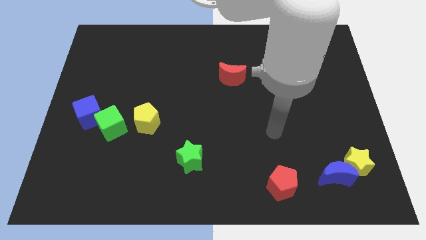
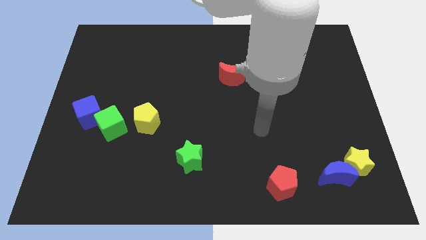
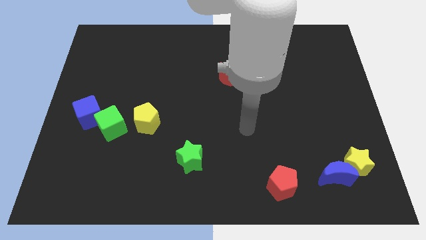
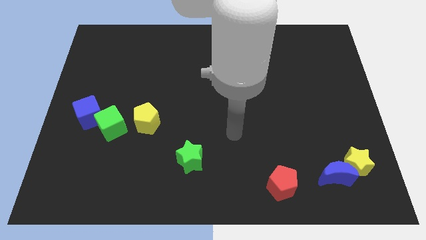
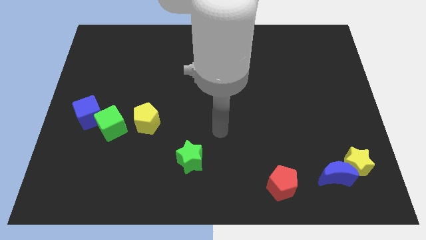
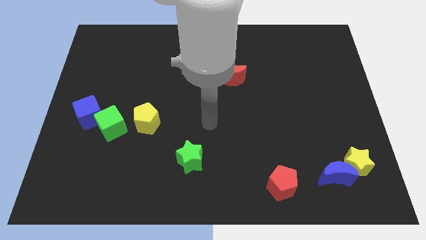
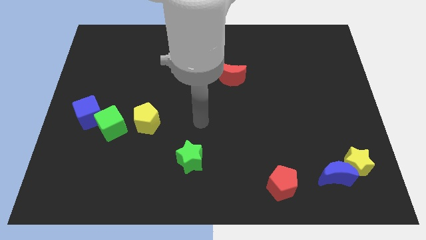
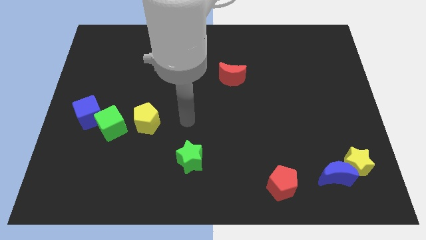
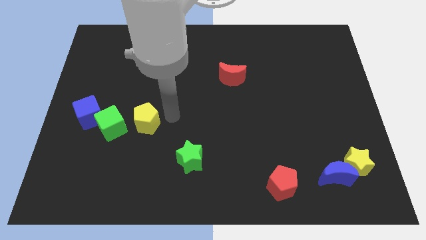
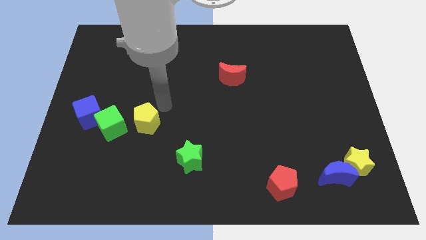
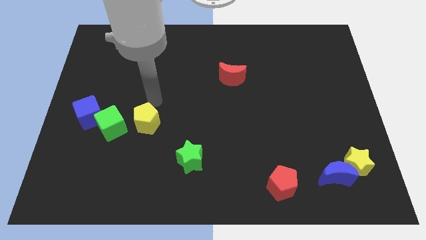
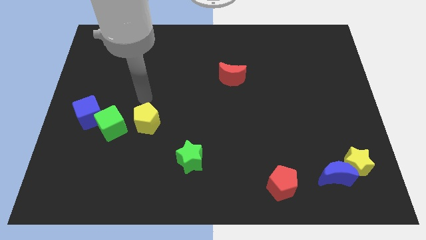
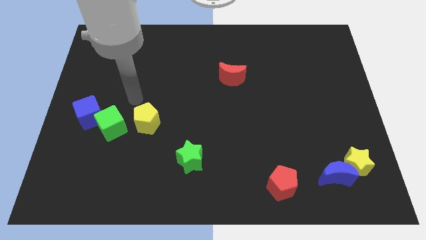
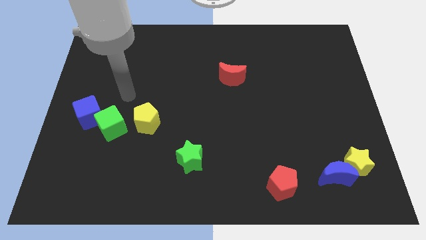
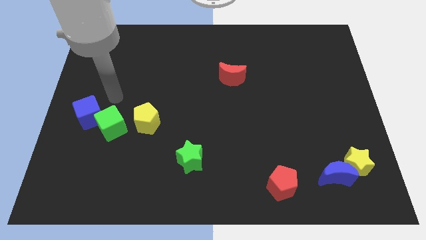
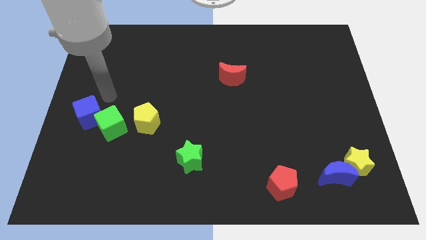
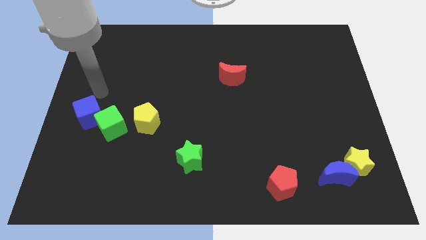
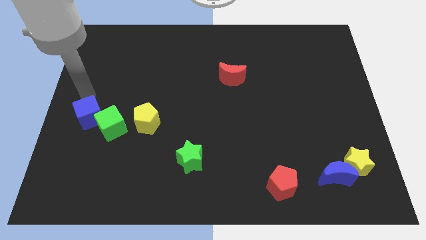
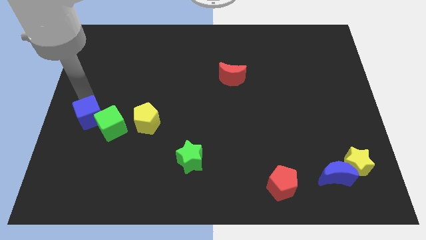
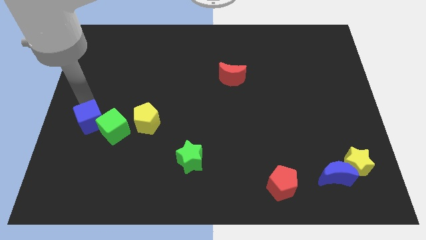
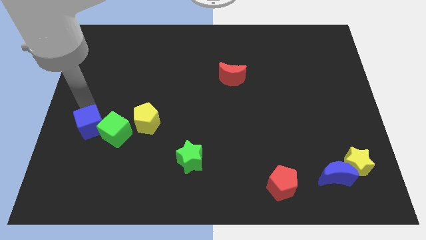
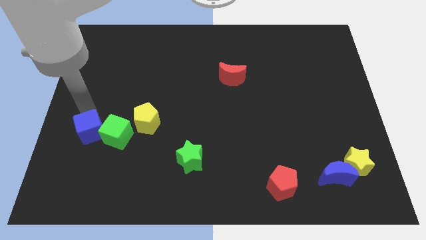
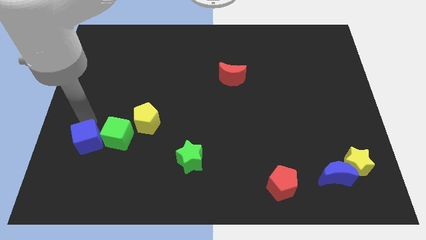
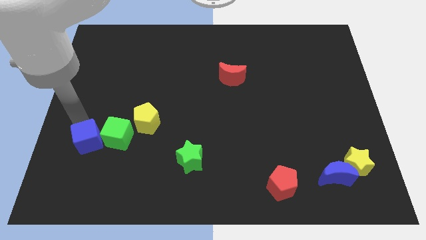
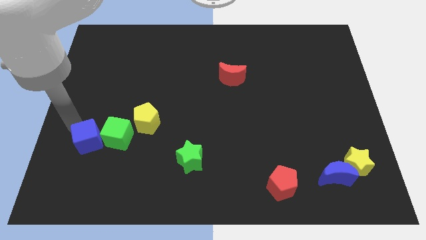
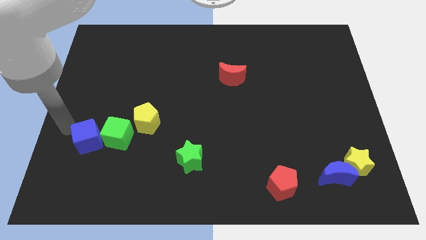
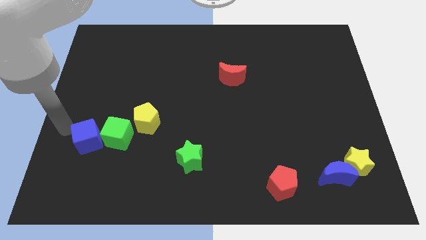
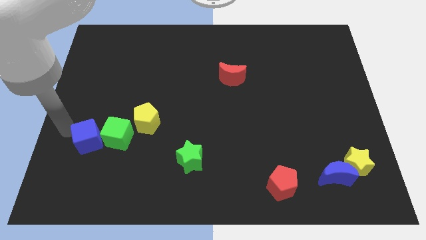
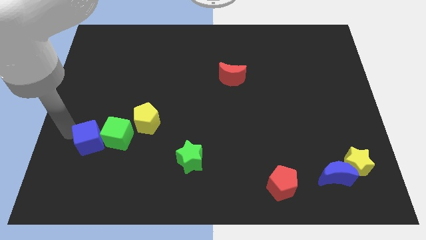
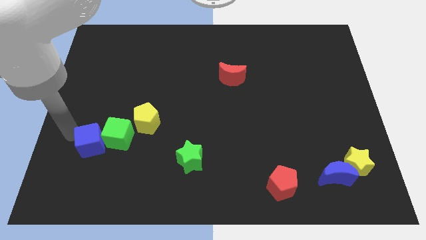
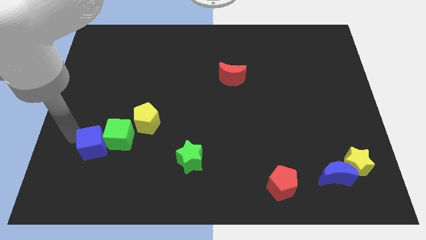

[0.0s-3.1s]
slightly push the blue cube down and to the right

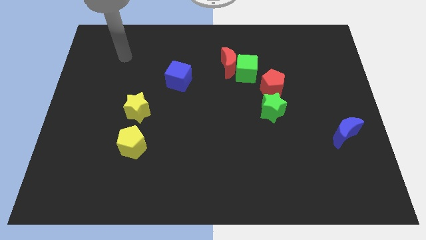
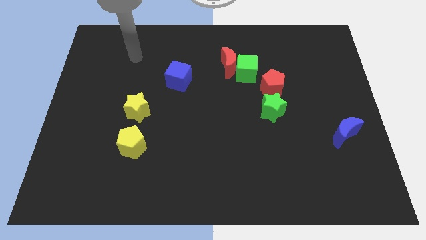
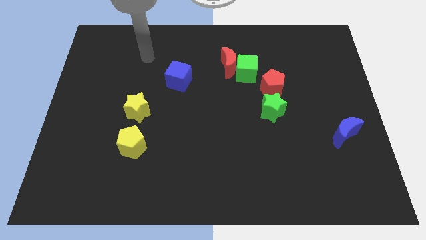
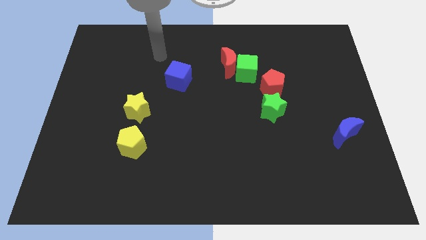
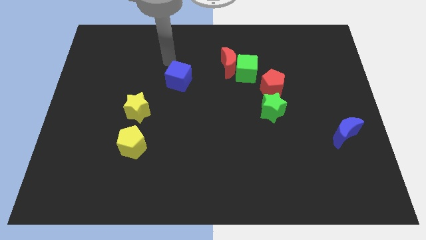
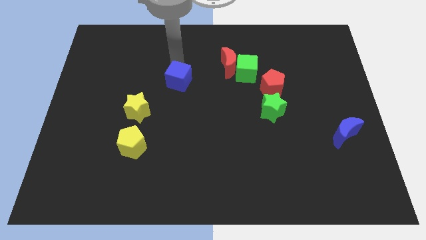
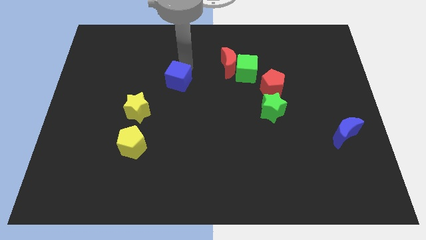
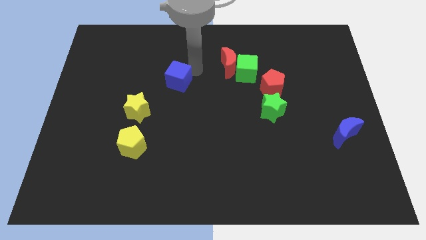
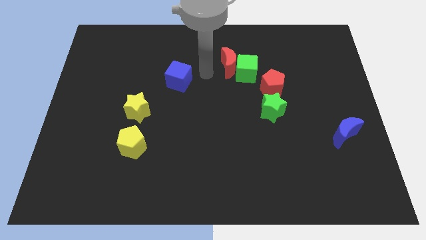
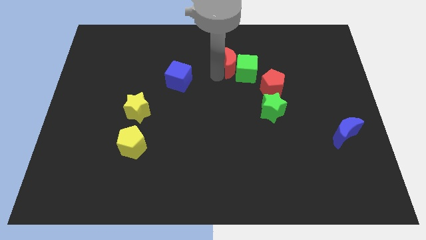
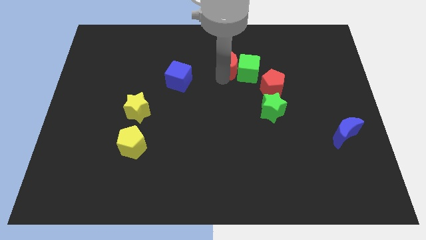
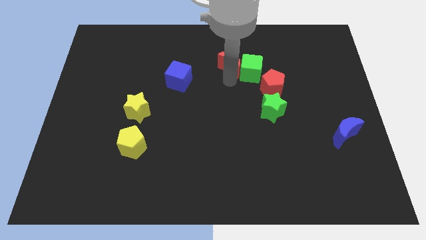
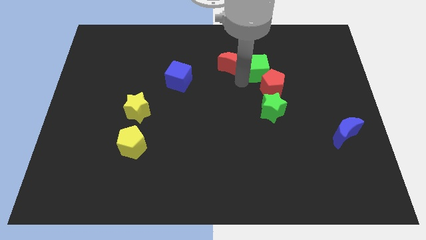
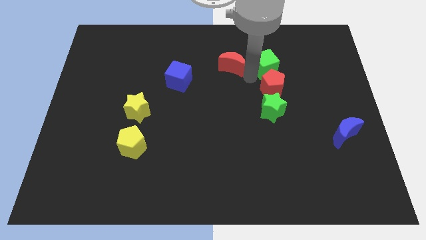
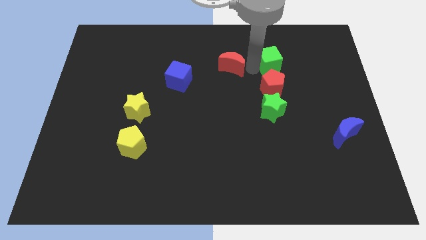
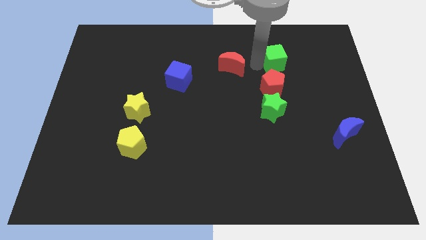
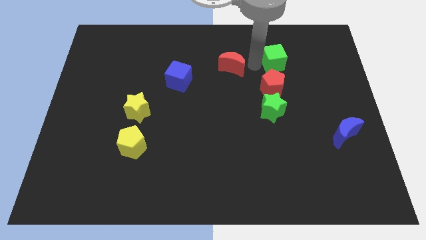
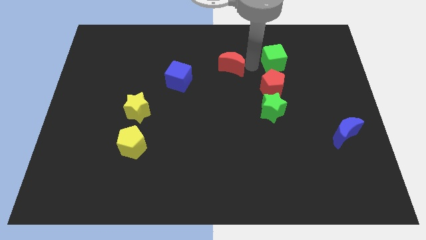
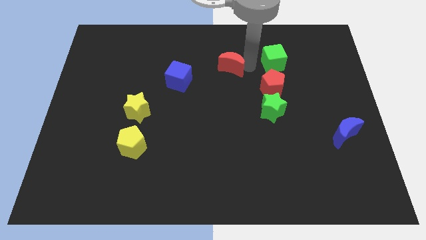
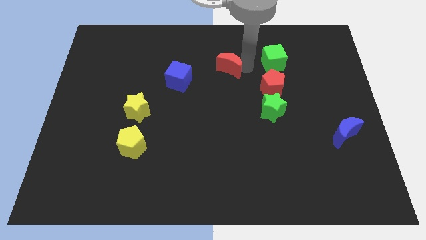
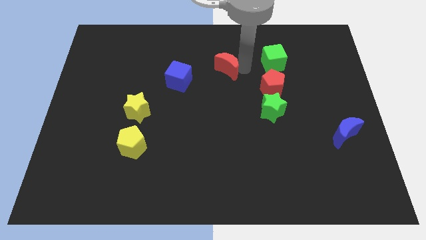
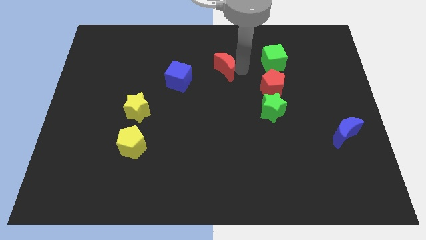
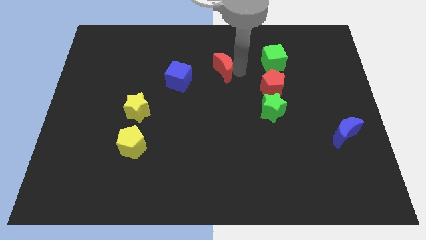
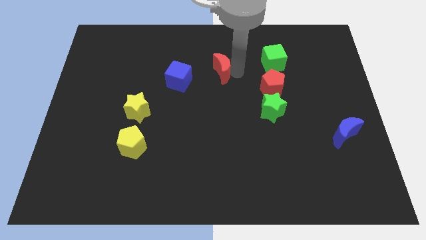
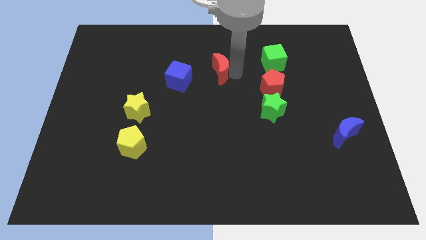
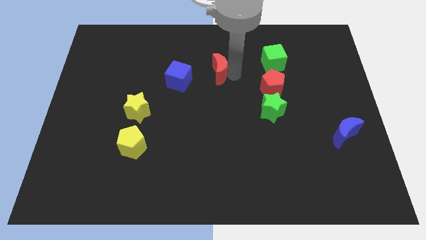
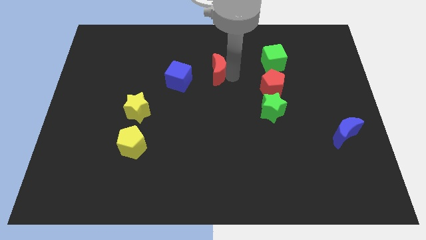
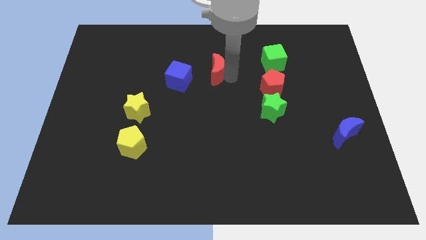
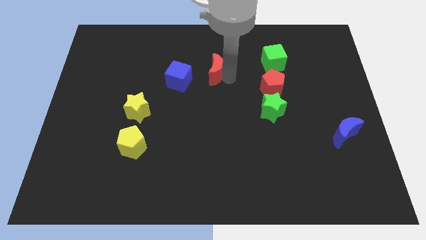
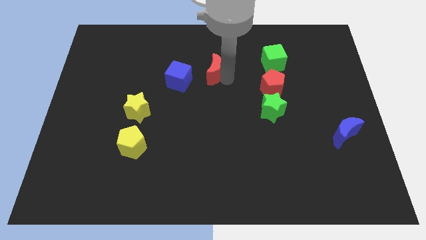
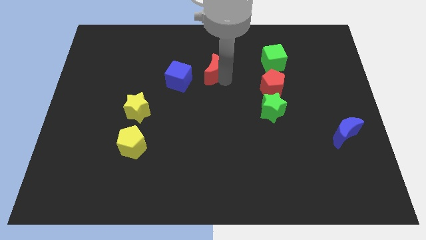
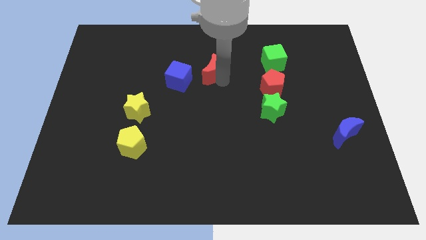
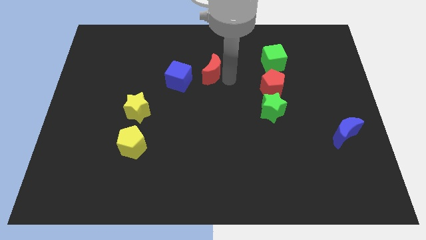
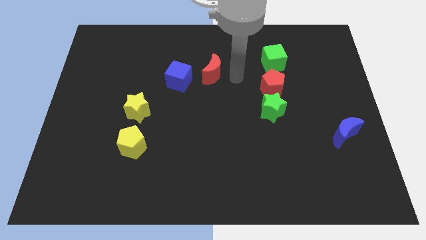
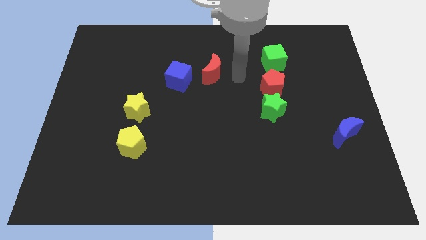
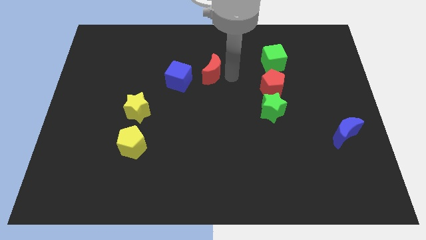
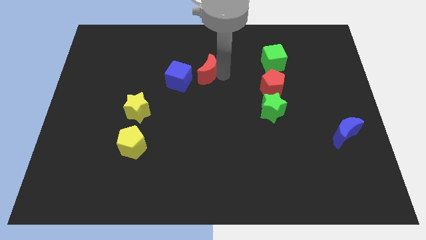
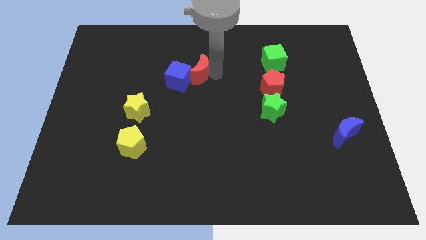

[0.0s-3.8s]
push the red moon left somewhat

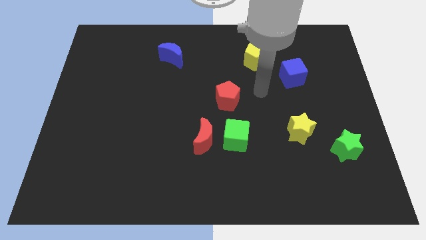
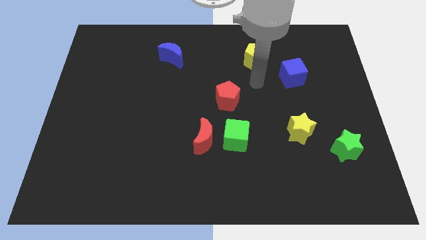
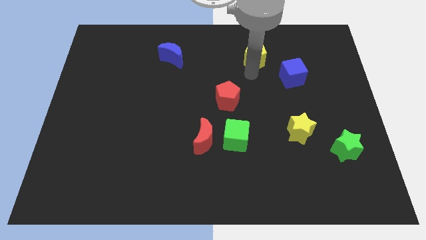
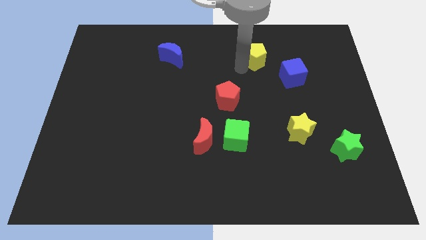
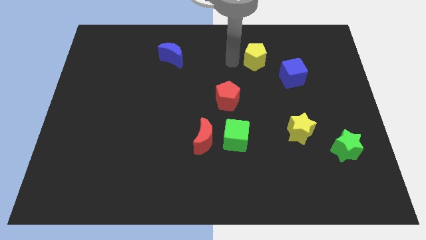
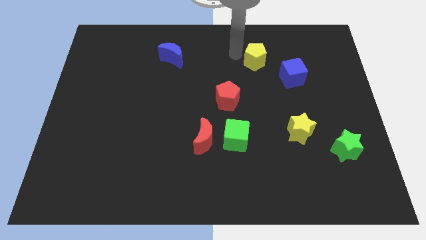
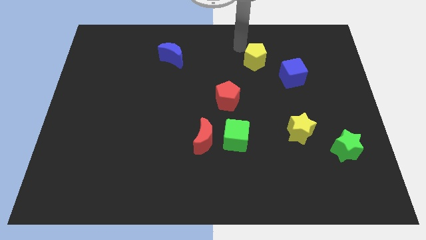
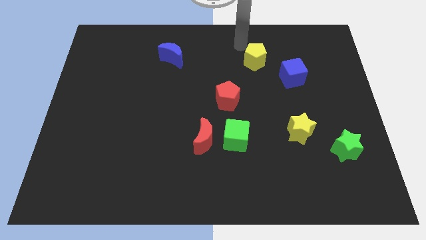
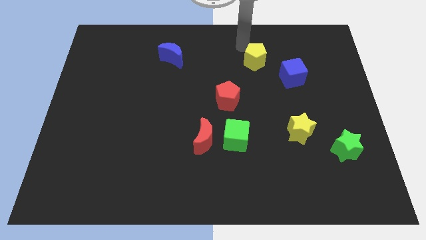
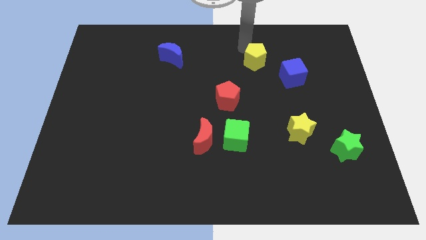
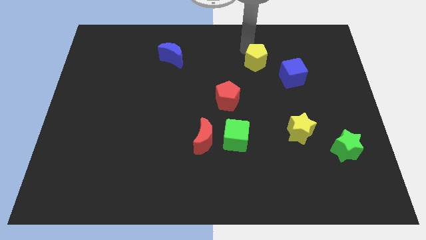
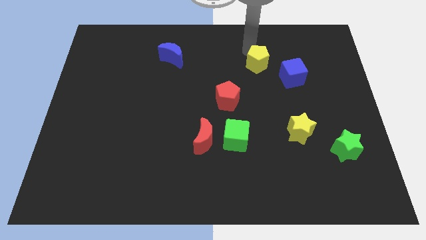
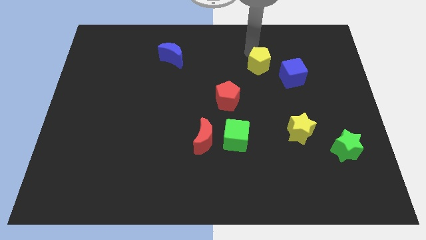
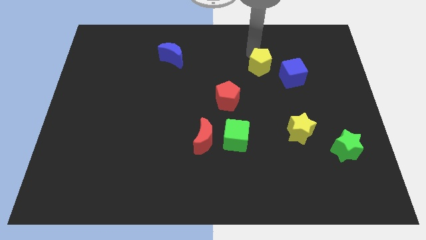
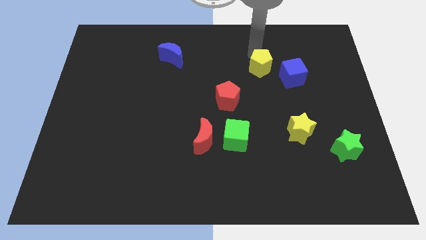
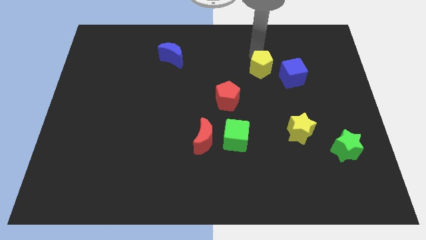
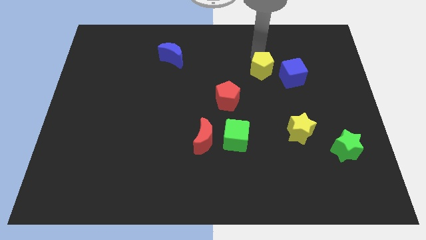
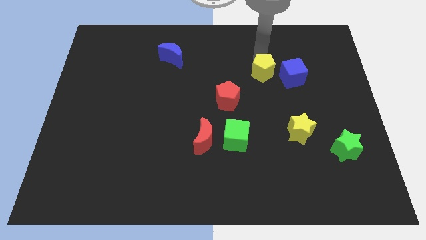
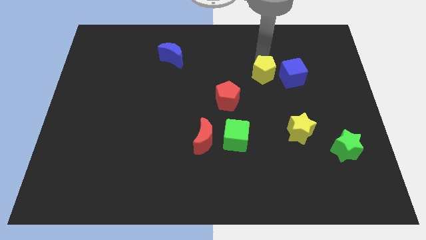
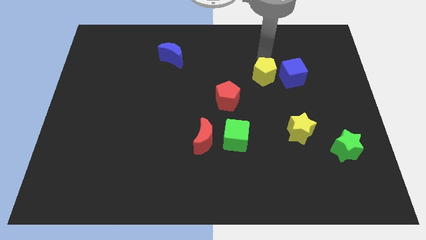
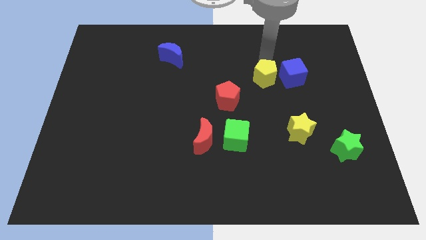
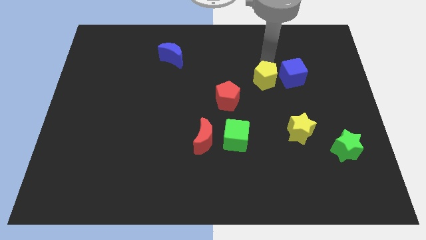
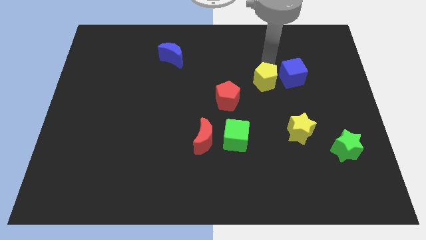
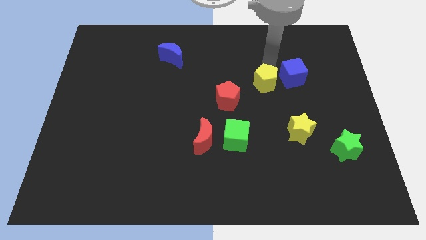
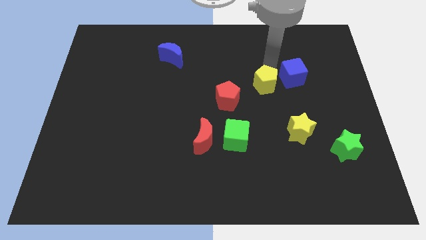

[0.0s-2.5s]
slide the yellow pentagon somewhat down and then to the right
